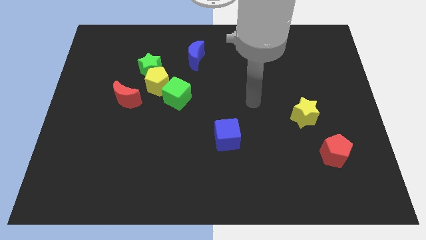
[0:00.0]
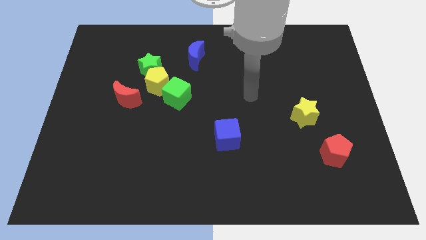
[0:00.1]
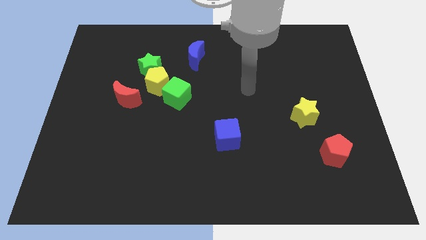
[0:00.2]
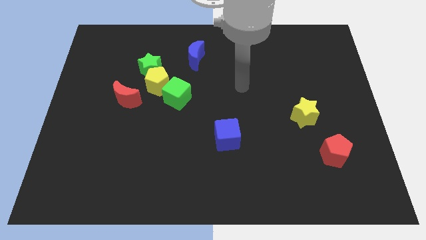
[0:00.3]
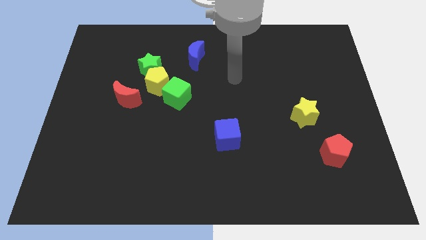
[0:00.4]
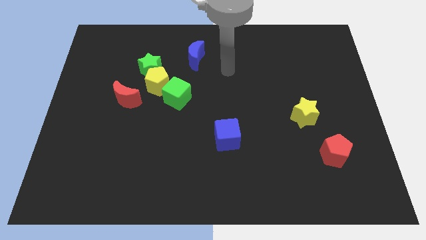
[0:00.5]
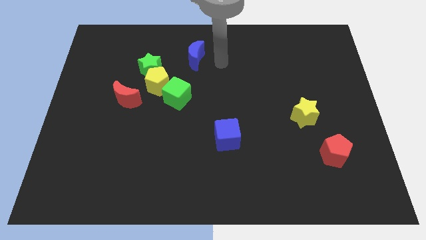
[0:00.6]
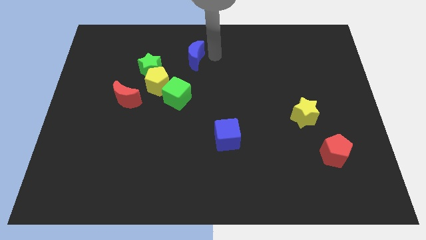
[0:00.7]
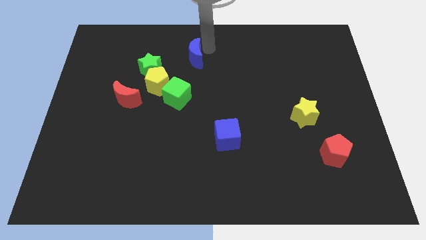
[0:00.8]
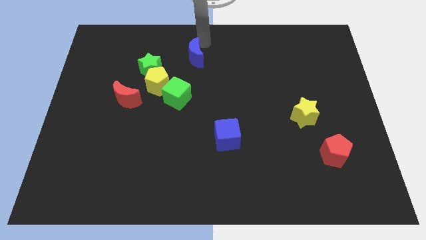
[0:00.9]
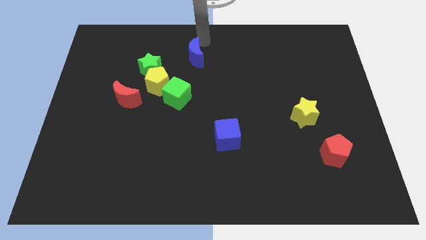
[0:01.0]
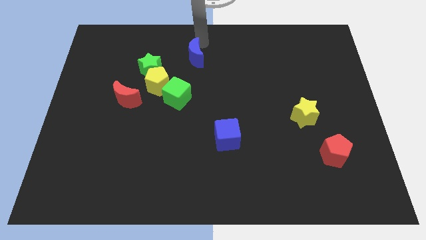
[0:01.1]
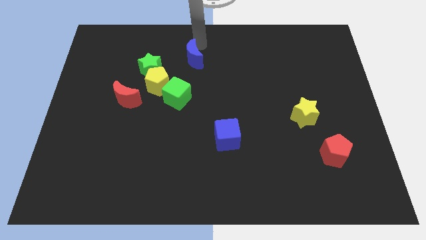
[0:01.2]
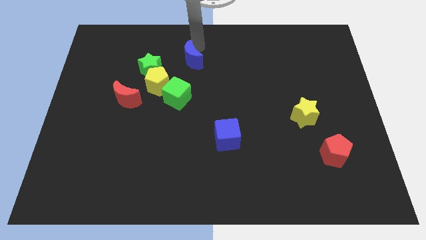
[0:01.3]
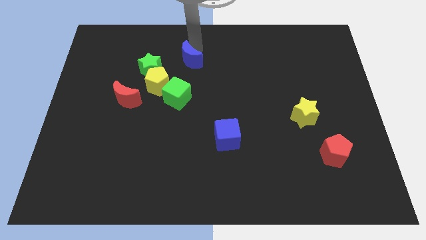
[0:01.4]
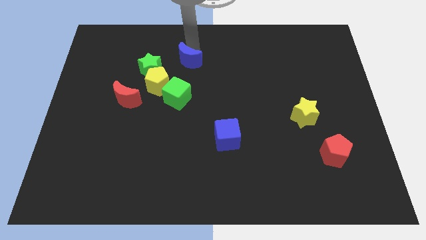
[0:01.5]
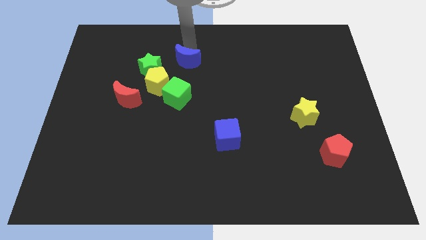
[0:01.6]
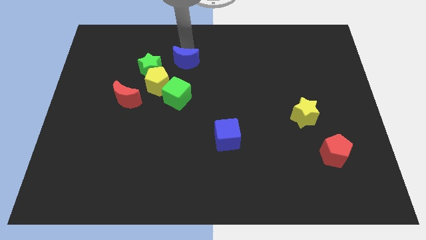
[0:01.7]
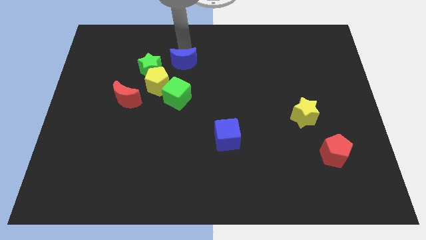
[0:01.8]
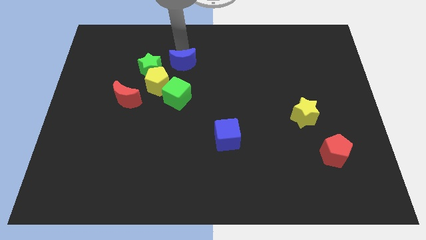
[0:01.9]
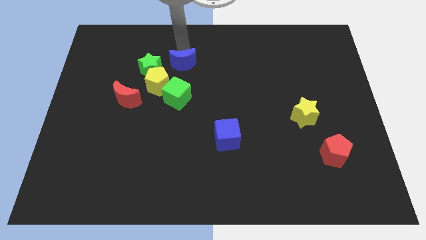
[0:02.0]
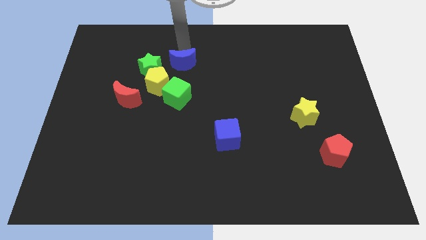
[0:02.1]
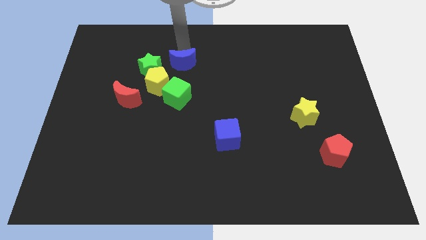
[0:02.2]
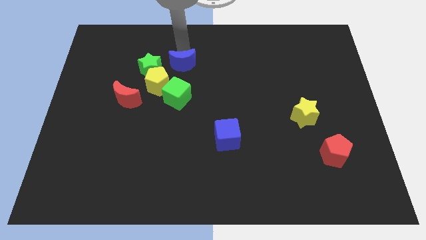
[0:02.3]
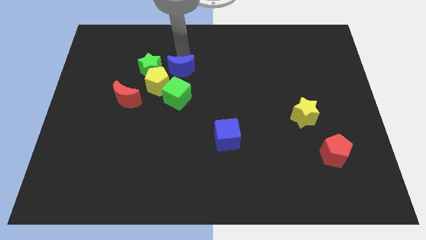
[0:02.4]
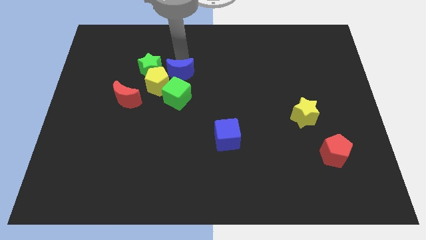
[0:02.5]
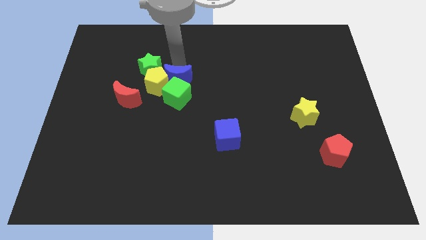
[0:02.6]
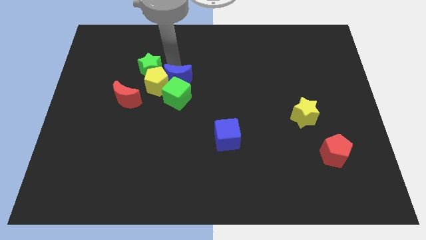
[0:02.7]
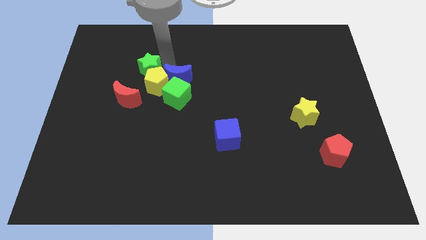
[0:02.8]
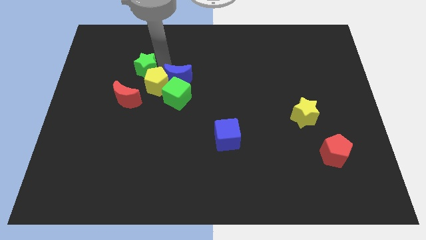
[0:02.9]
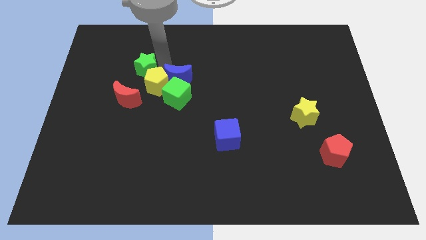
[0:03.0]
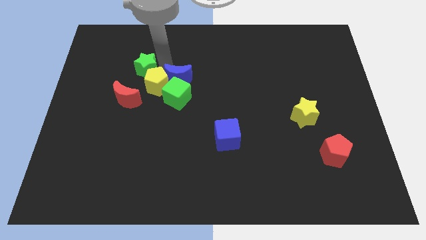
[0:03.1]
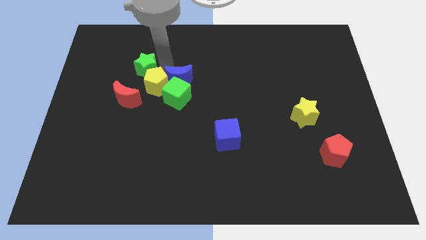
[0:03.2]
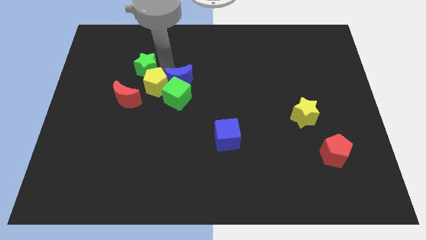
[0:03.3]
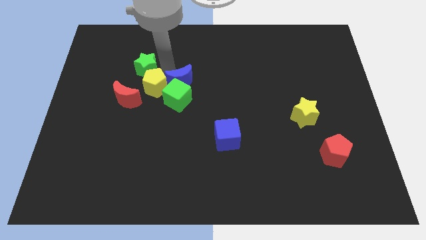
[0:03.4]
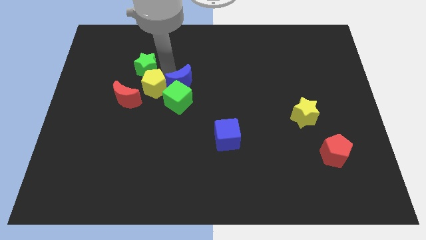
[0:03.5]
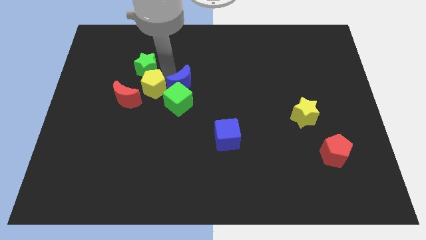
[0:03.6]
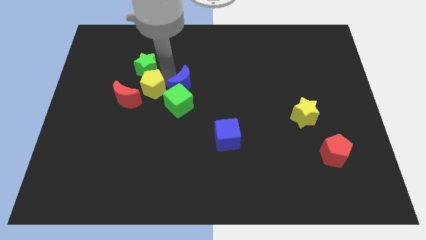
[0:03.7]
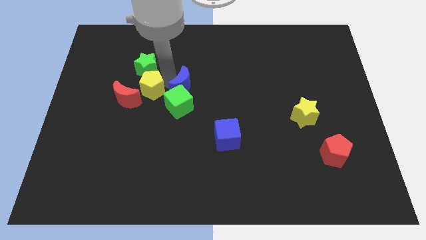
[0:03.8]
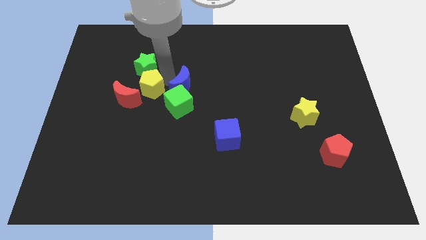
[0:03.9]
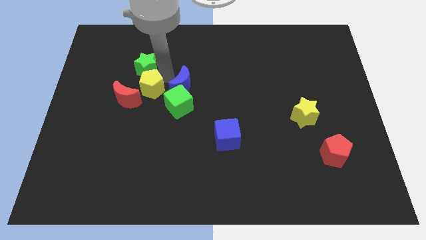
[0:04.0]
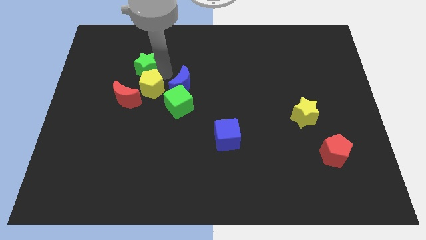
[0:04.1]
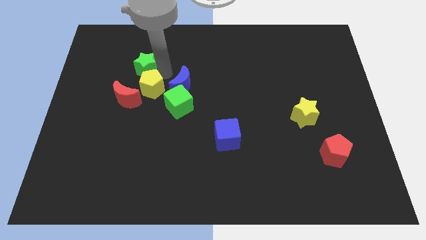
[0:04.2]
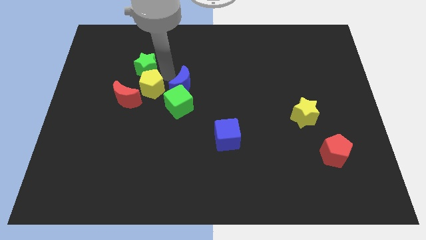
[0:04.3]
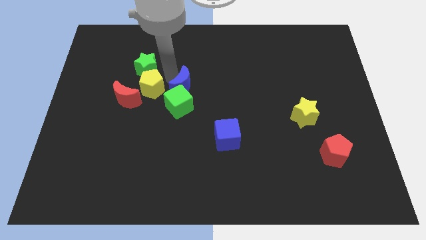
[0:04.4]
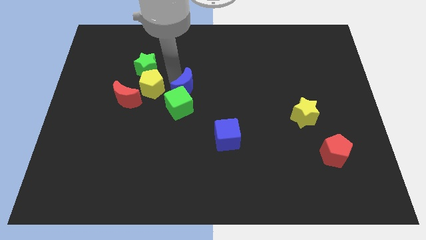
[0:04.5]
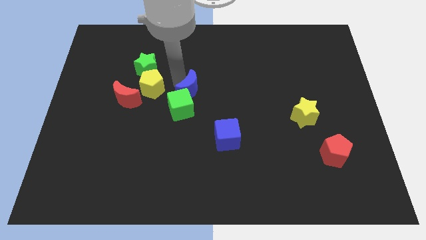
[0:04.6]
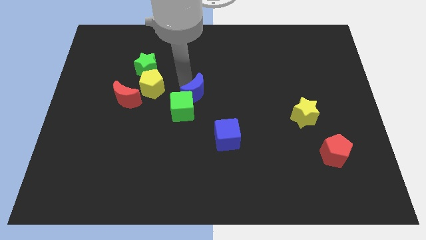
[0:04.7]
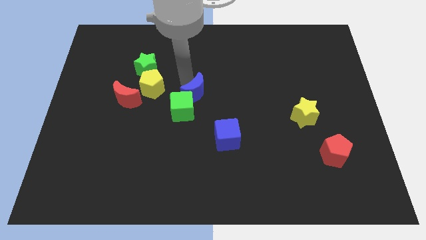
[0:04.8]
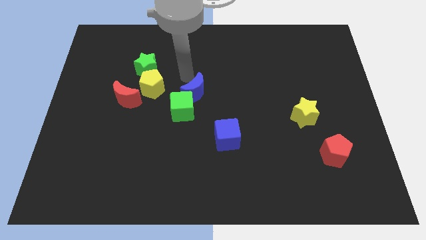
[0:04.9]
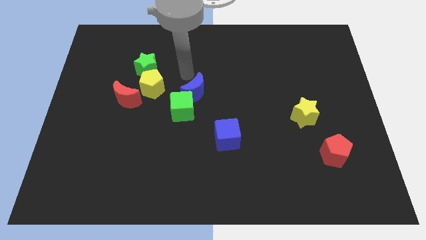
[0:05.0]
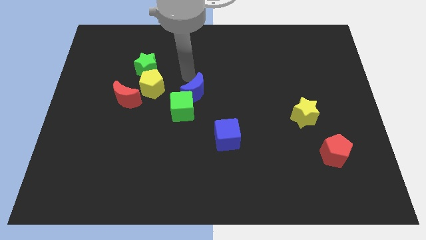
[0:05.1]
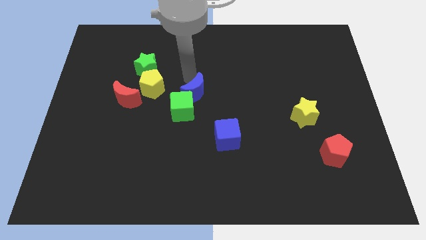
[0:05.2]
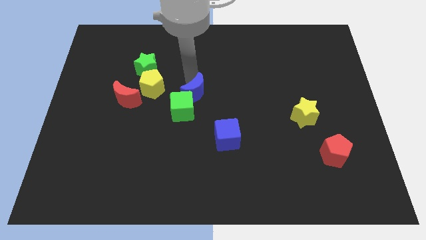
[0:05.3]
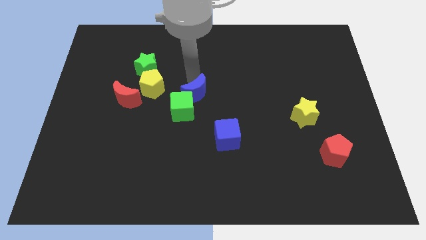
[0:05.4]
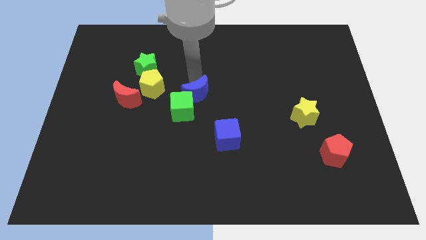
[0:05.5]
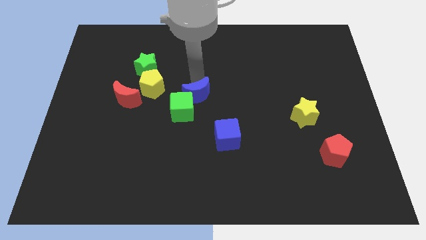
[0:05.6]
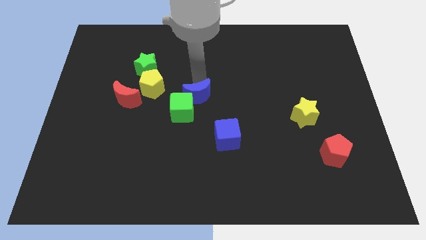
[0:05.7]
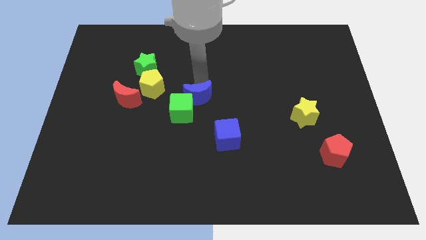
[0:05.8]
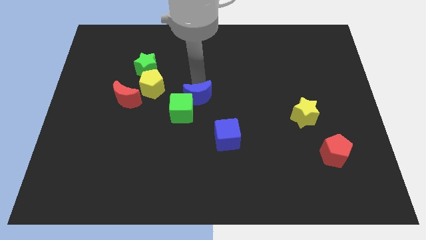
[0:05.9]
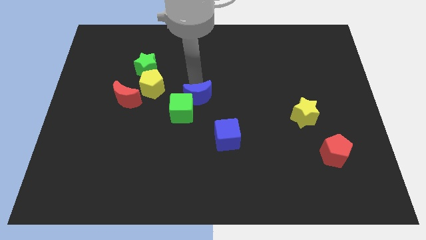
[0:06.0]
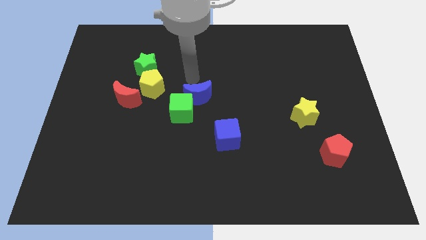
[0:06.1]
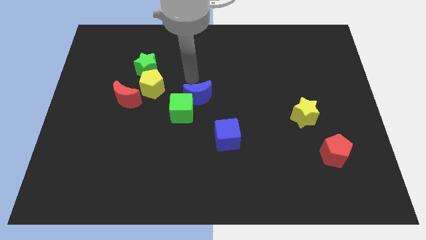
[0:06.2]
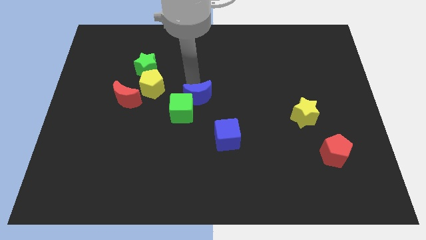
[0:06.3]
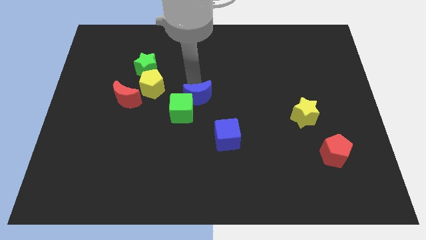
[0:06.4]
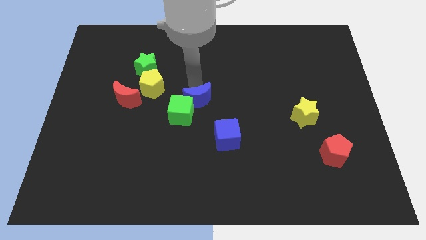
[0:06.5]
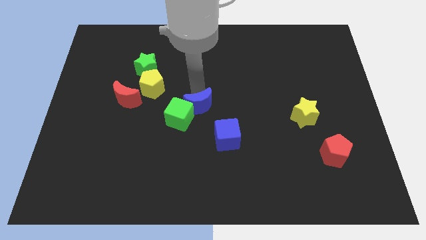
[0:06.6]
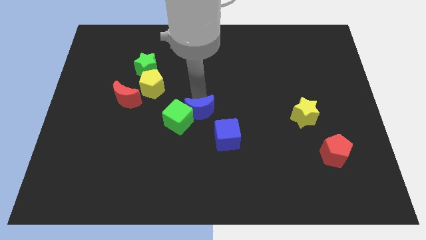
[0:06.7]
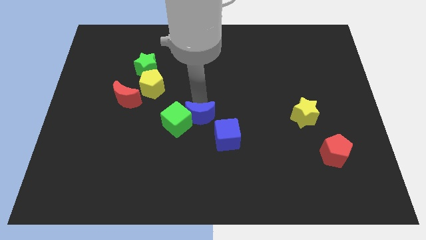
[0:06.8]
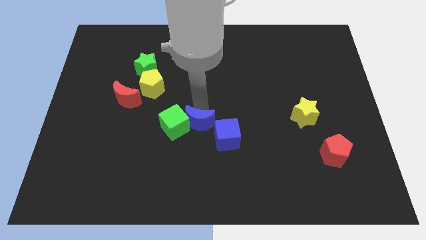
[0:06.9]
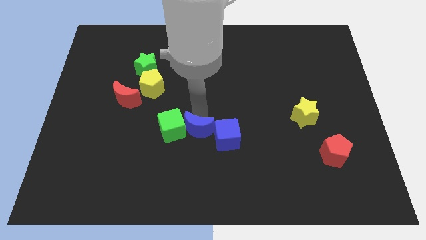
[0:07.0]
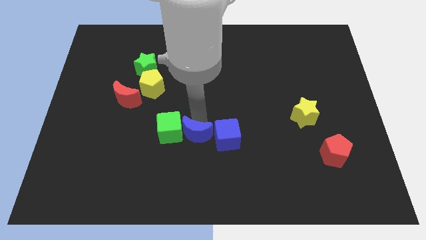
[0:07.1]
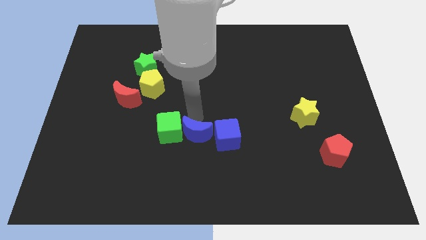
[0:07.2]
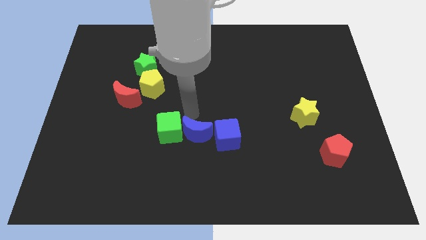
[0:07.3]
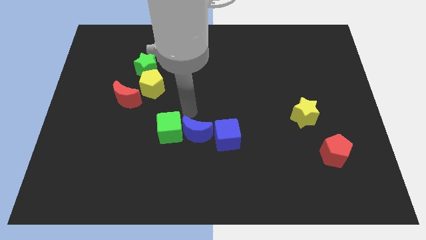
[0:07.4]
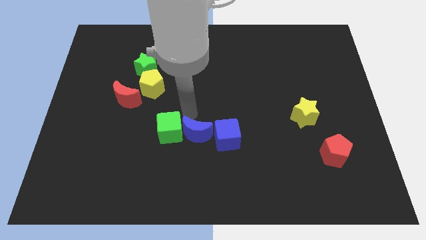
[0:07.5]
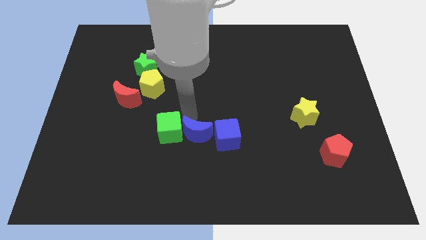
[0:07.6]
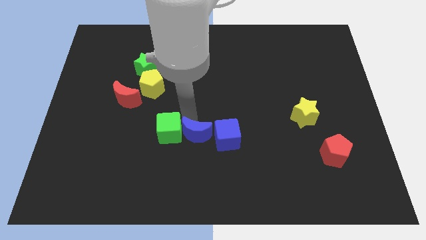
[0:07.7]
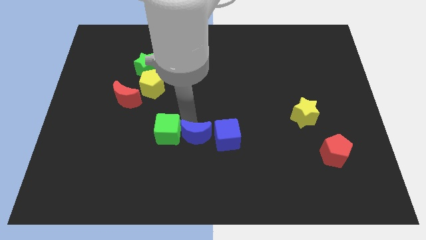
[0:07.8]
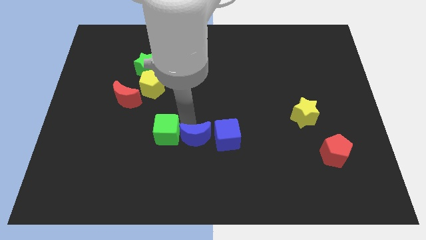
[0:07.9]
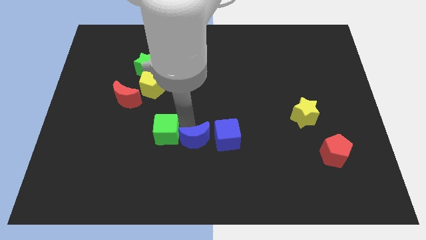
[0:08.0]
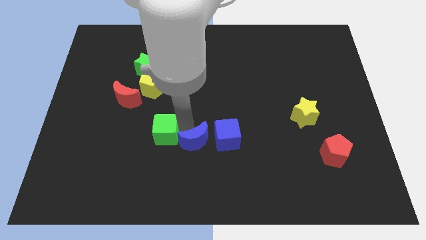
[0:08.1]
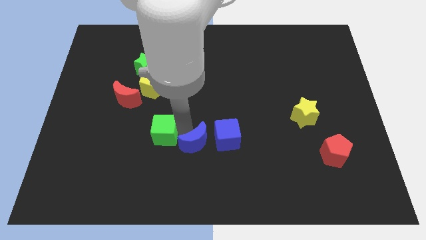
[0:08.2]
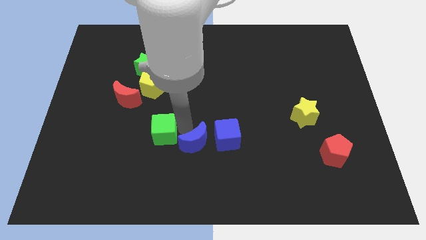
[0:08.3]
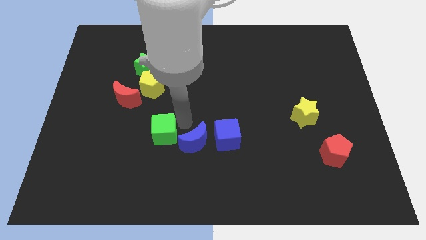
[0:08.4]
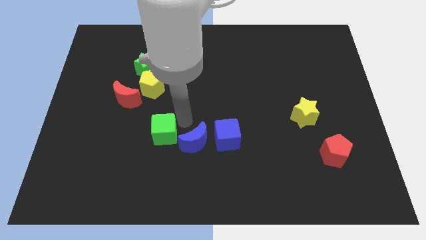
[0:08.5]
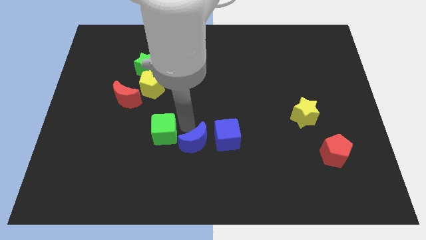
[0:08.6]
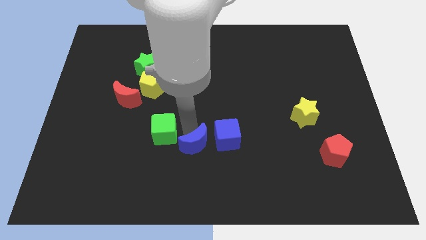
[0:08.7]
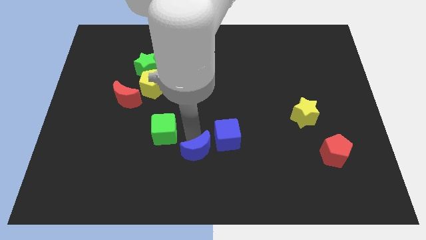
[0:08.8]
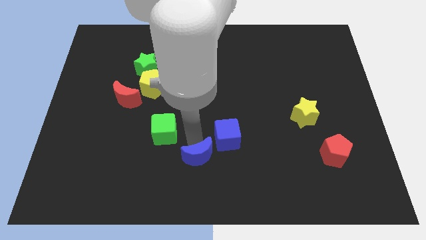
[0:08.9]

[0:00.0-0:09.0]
move the blue moon to the bottom side
